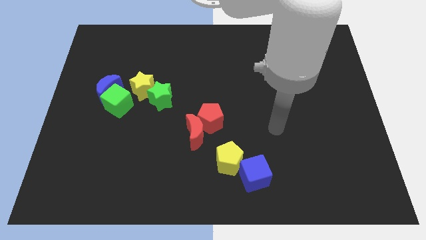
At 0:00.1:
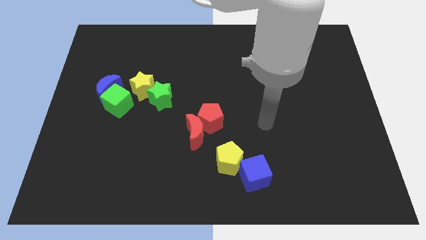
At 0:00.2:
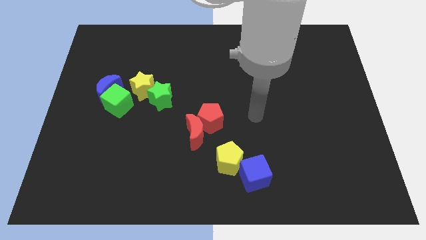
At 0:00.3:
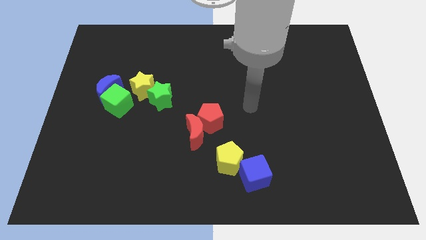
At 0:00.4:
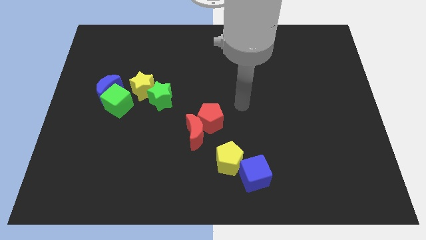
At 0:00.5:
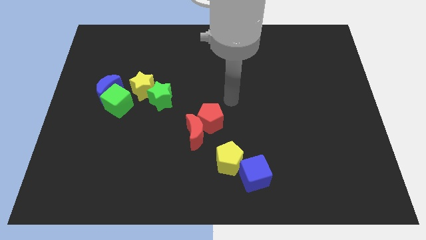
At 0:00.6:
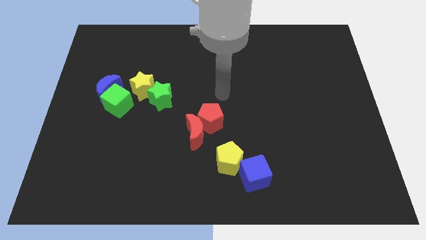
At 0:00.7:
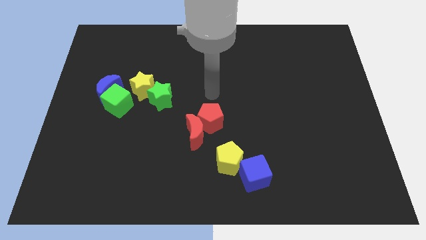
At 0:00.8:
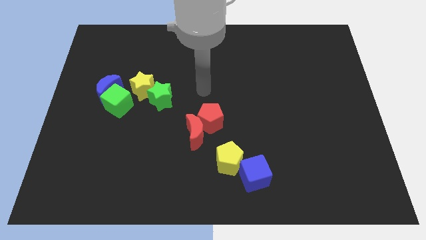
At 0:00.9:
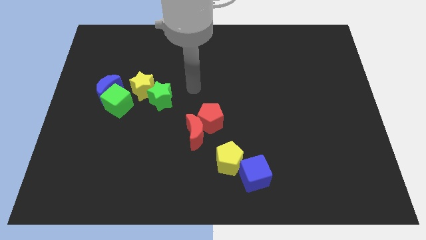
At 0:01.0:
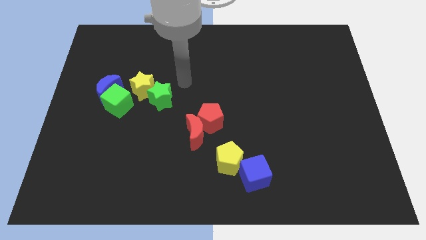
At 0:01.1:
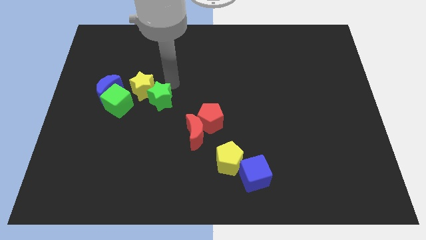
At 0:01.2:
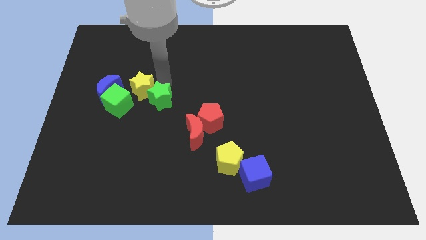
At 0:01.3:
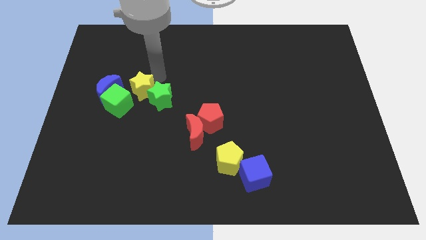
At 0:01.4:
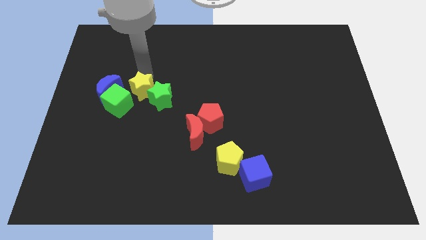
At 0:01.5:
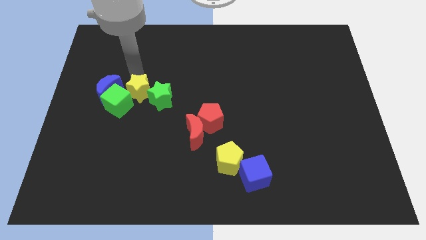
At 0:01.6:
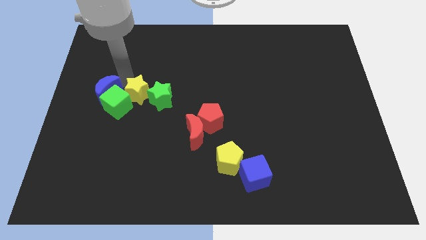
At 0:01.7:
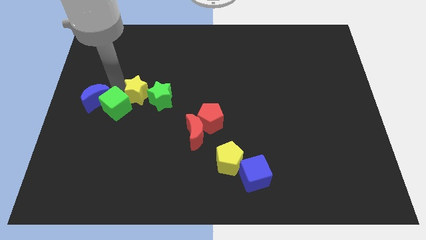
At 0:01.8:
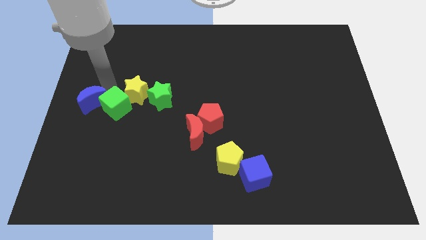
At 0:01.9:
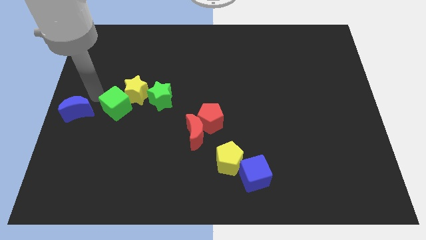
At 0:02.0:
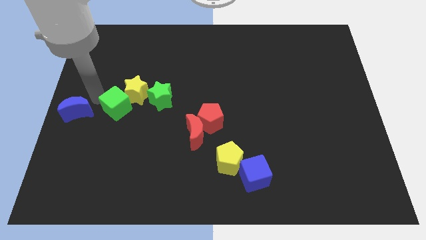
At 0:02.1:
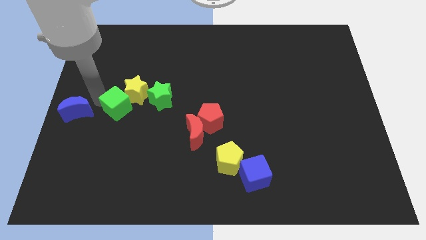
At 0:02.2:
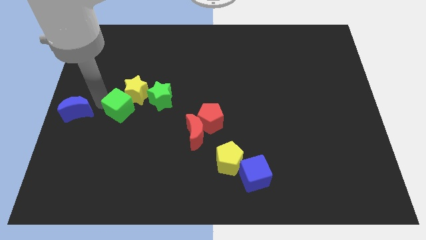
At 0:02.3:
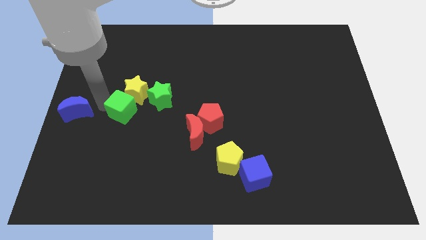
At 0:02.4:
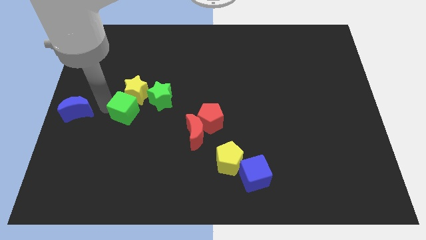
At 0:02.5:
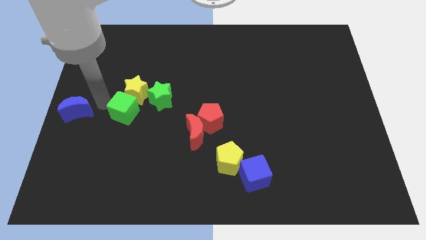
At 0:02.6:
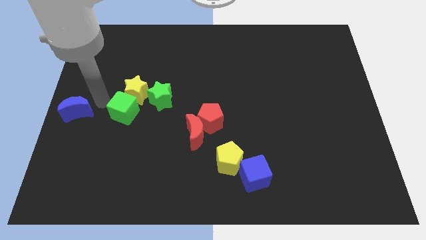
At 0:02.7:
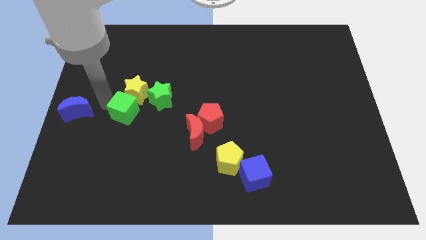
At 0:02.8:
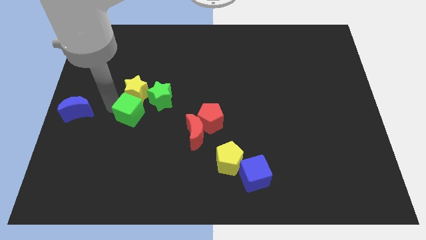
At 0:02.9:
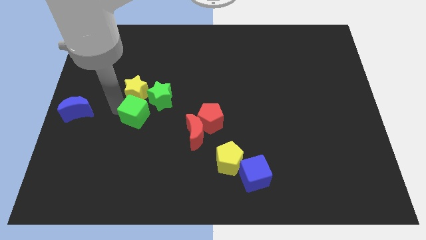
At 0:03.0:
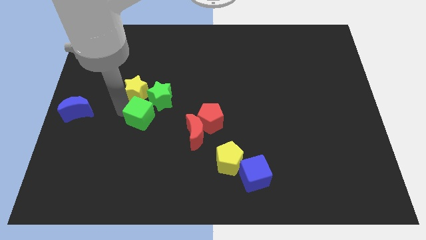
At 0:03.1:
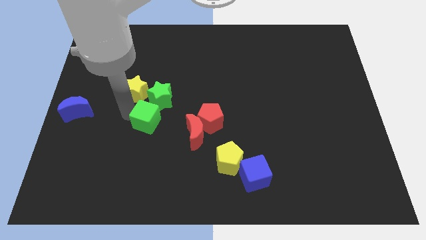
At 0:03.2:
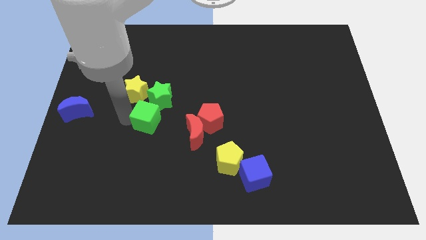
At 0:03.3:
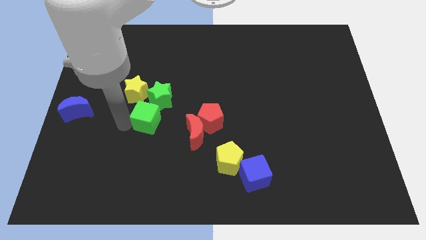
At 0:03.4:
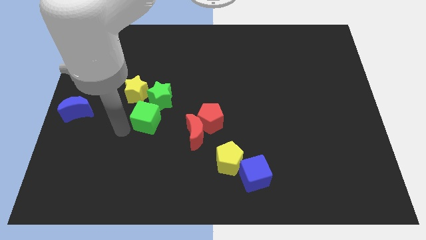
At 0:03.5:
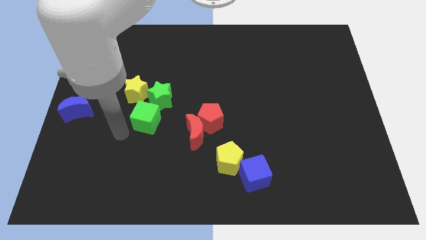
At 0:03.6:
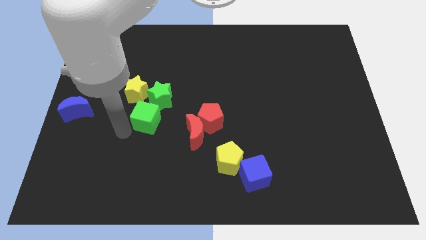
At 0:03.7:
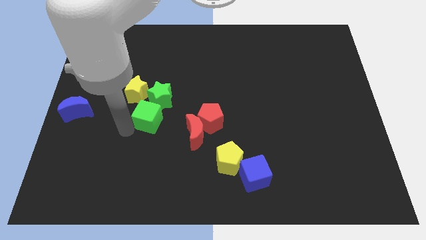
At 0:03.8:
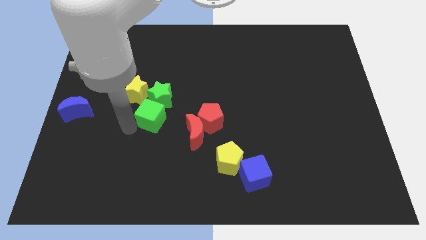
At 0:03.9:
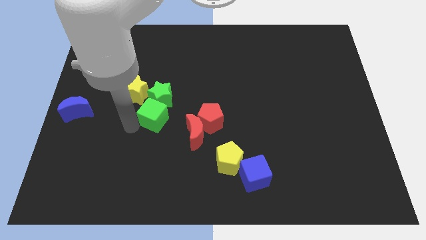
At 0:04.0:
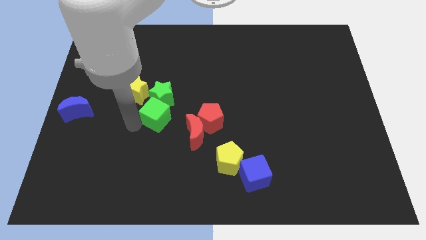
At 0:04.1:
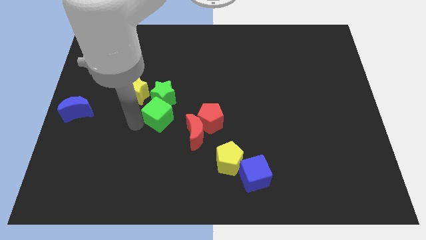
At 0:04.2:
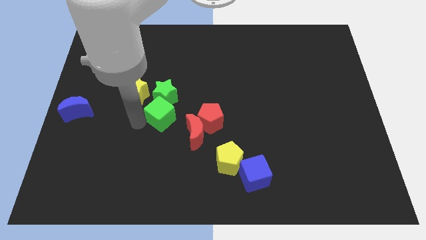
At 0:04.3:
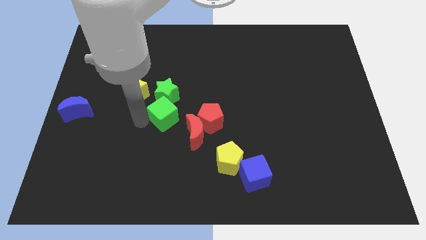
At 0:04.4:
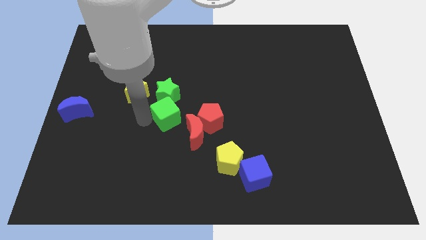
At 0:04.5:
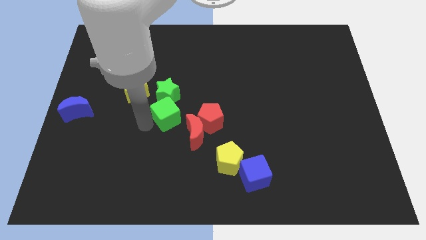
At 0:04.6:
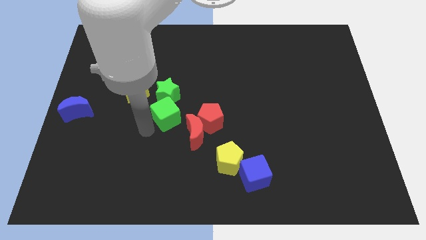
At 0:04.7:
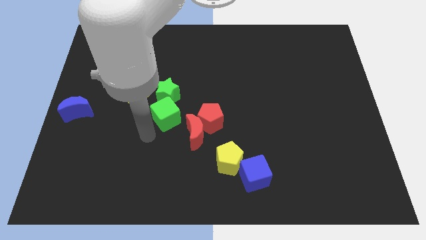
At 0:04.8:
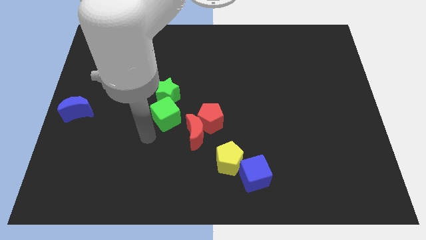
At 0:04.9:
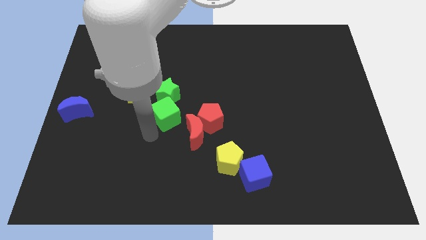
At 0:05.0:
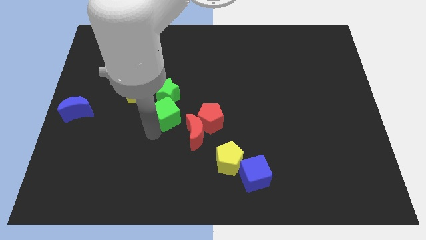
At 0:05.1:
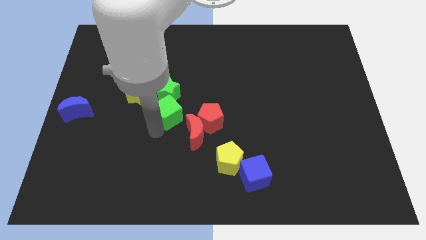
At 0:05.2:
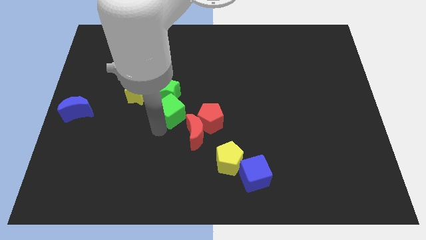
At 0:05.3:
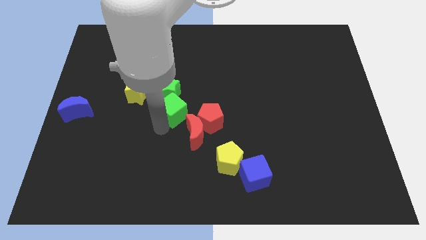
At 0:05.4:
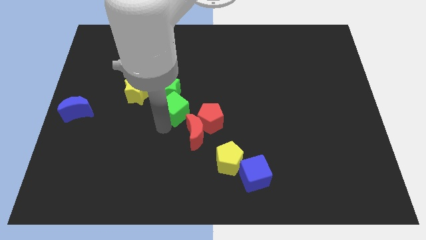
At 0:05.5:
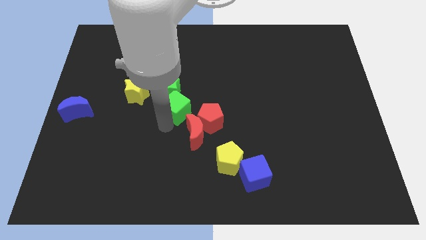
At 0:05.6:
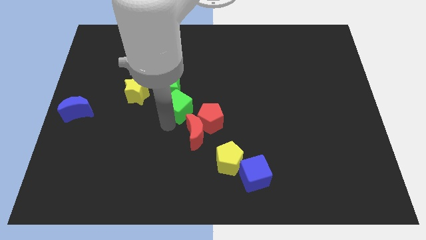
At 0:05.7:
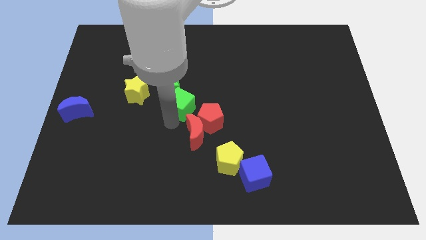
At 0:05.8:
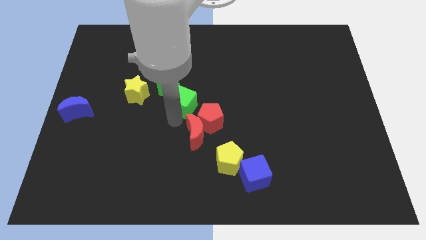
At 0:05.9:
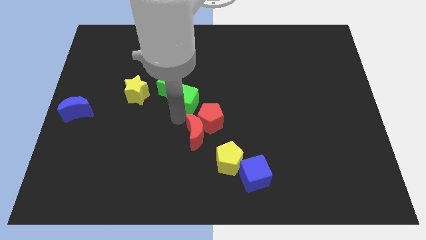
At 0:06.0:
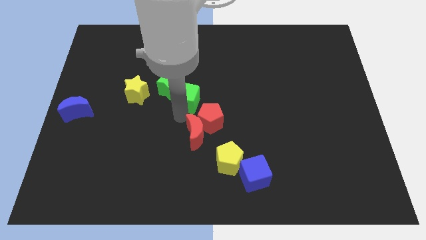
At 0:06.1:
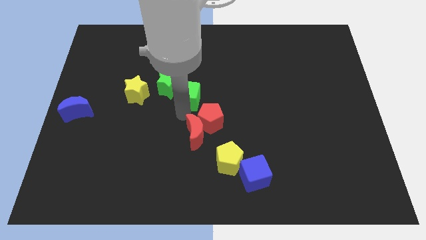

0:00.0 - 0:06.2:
push the green cube diagonally up and right somewhat

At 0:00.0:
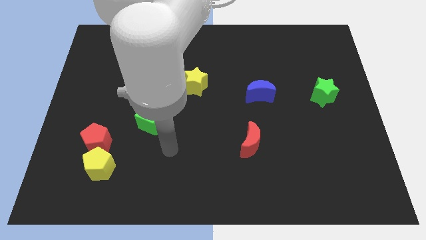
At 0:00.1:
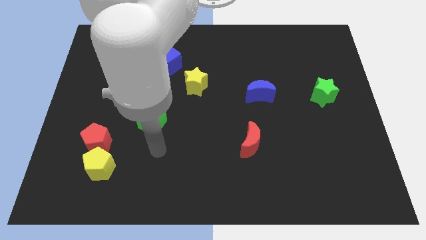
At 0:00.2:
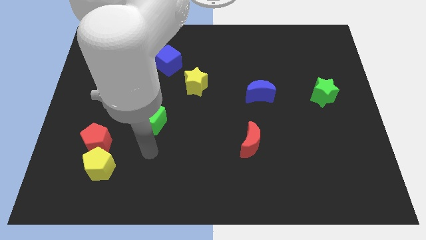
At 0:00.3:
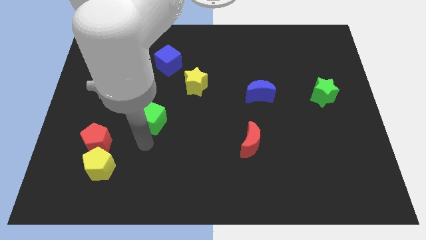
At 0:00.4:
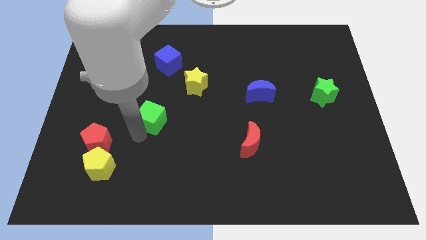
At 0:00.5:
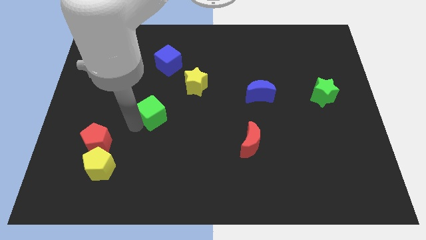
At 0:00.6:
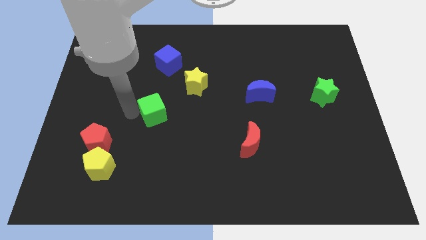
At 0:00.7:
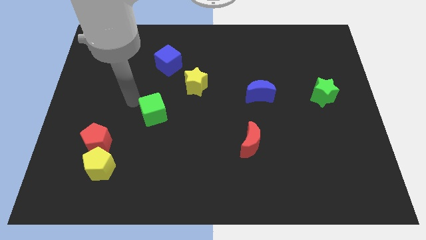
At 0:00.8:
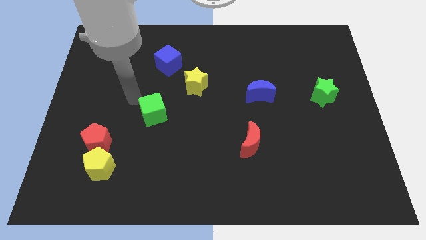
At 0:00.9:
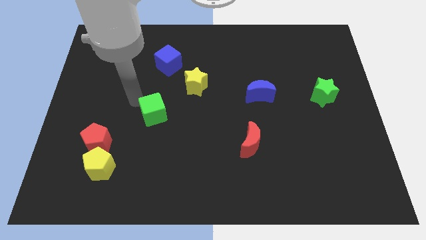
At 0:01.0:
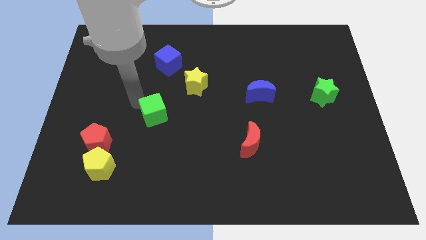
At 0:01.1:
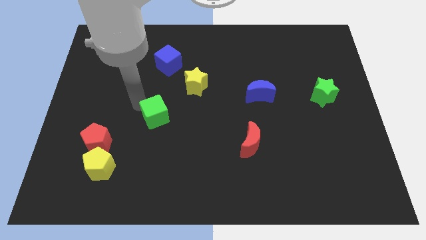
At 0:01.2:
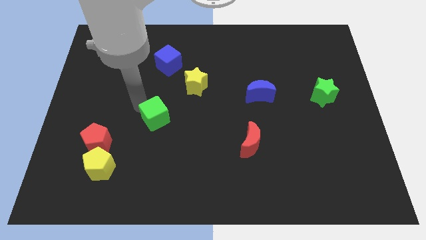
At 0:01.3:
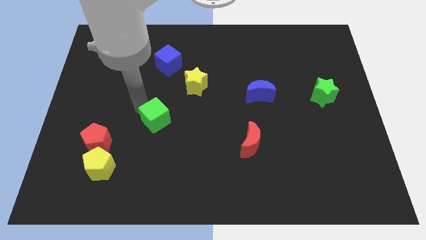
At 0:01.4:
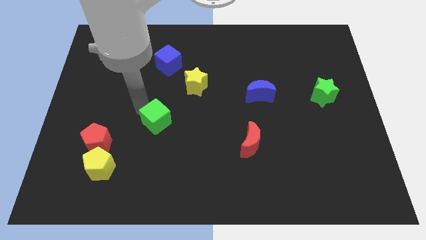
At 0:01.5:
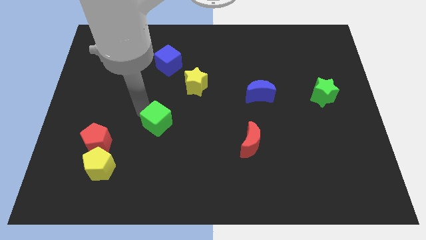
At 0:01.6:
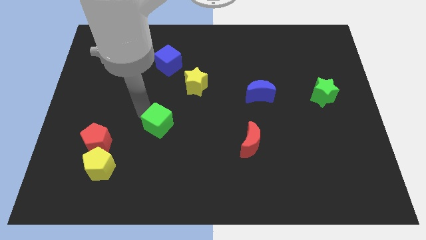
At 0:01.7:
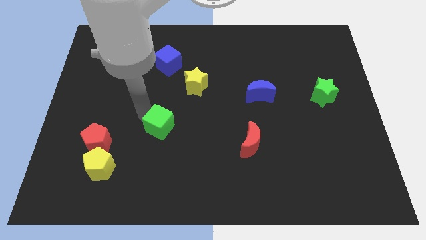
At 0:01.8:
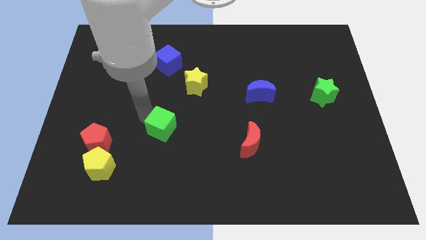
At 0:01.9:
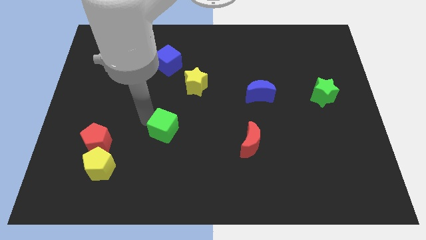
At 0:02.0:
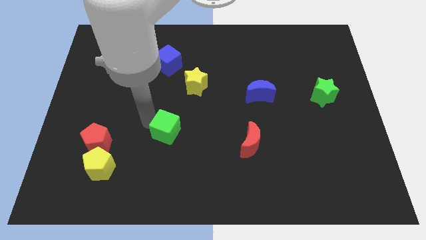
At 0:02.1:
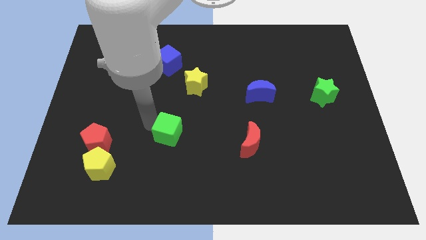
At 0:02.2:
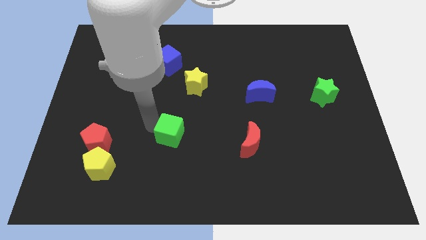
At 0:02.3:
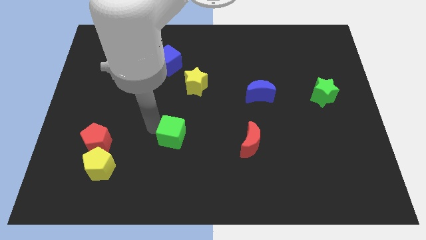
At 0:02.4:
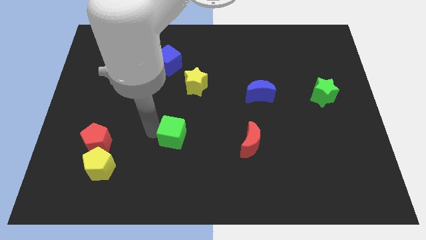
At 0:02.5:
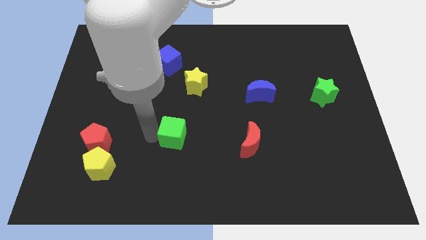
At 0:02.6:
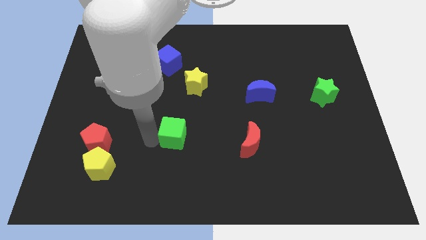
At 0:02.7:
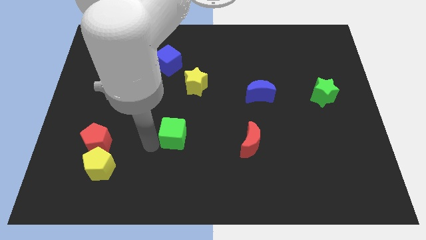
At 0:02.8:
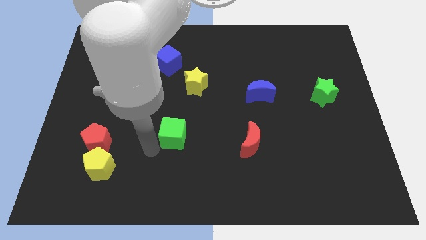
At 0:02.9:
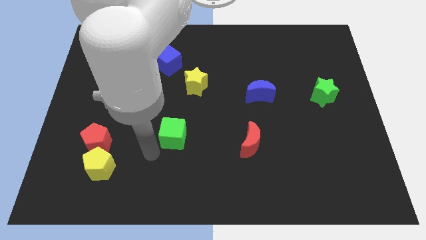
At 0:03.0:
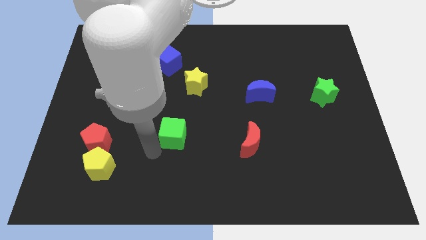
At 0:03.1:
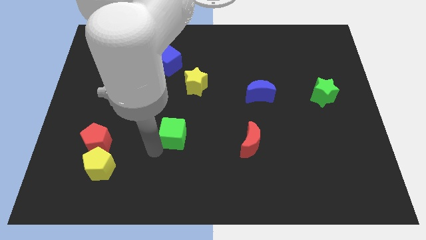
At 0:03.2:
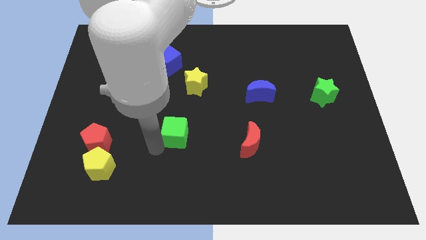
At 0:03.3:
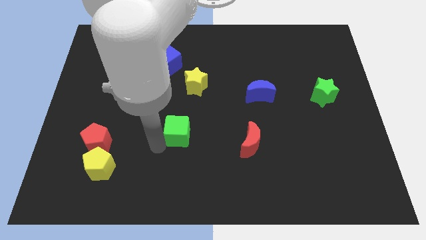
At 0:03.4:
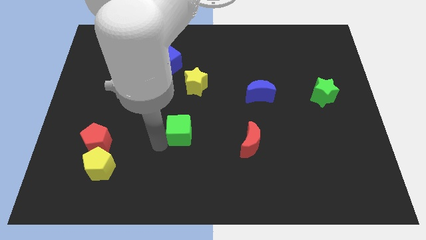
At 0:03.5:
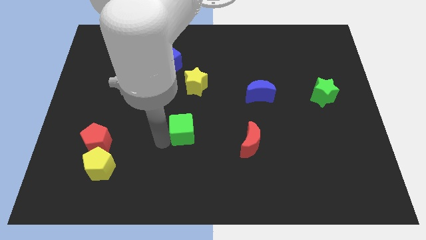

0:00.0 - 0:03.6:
slightly push the green cube right
